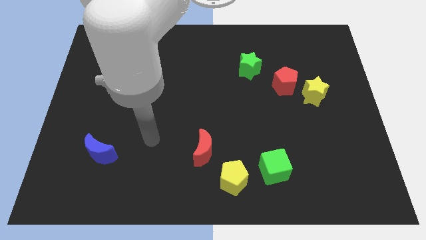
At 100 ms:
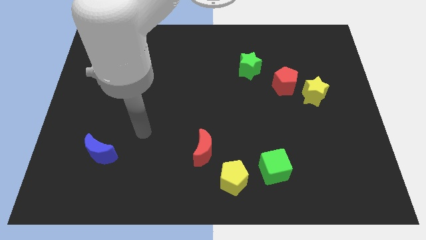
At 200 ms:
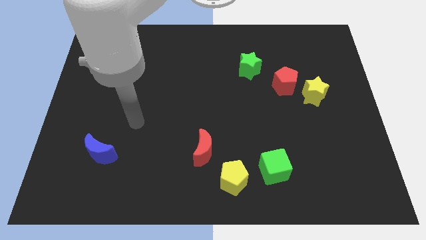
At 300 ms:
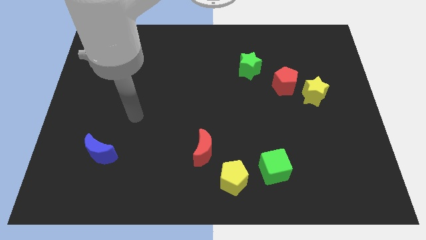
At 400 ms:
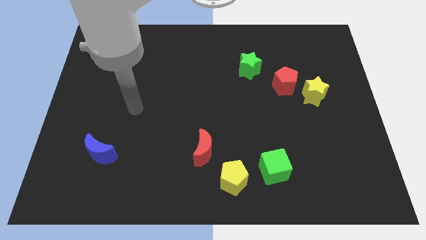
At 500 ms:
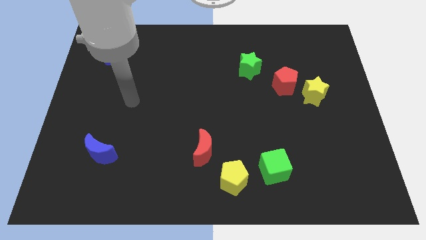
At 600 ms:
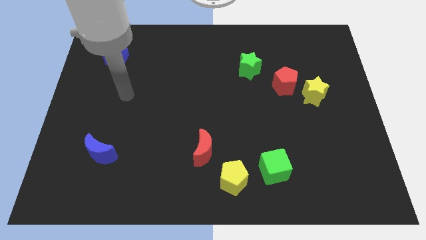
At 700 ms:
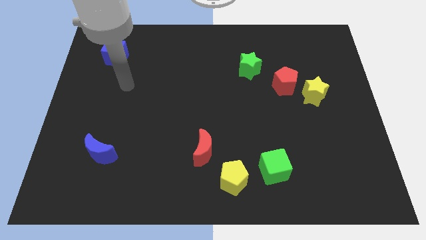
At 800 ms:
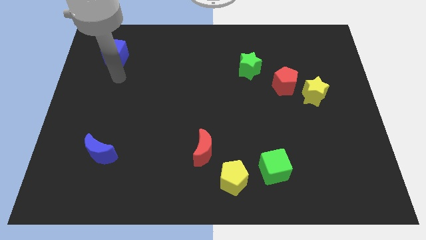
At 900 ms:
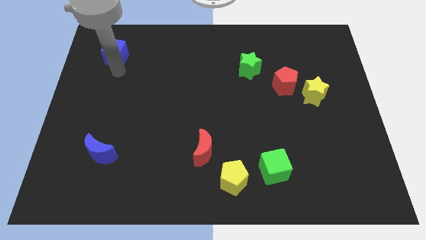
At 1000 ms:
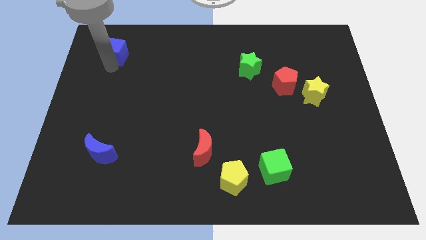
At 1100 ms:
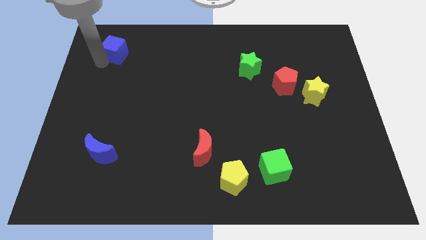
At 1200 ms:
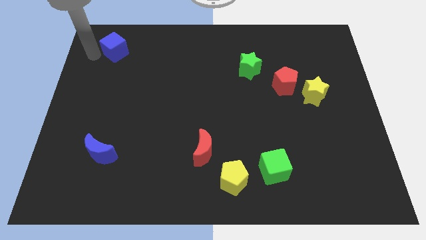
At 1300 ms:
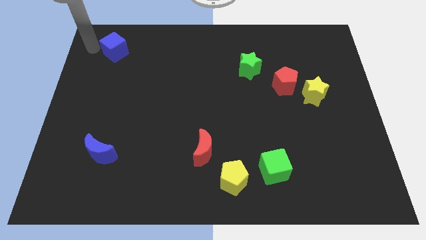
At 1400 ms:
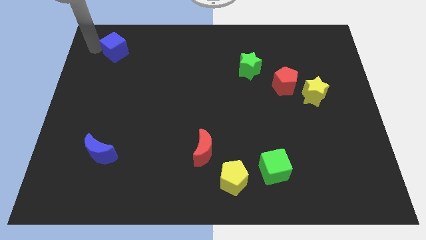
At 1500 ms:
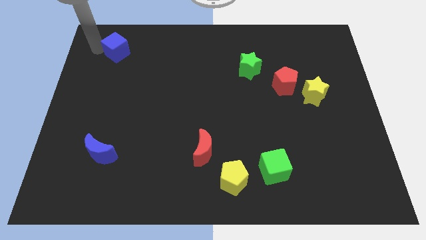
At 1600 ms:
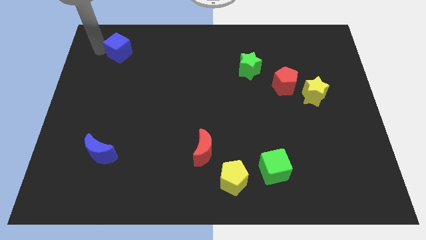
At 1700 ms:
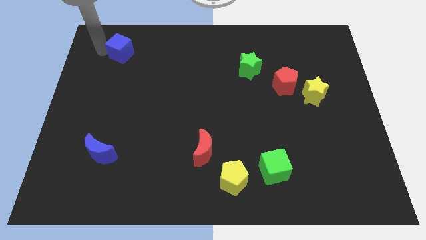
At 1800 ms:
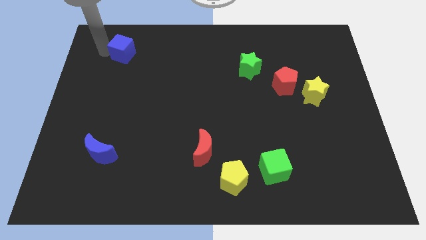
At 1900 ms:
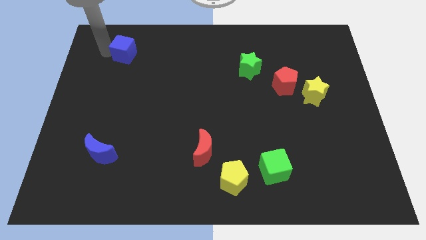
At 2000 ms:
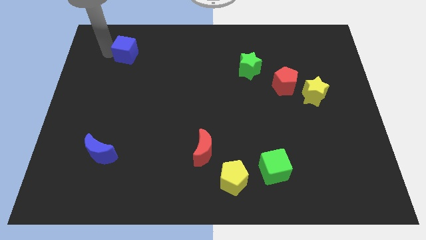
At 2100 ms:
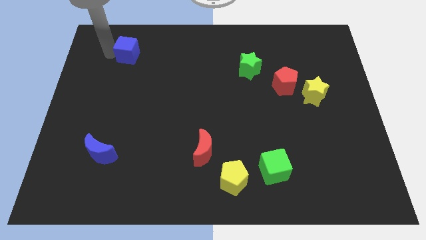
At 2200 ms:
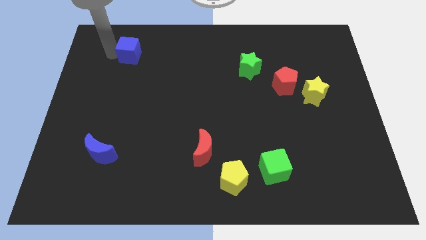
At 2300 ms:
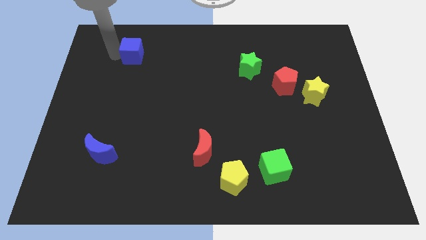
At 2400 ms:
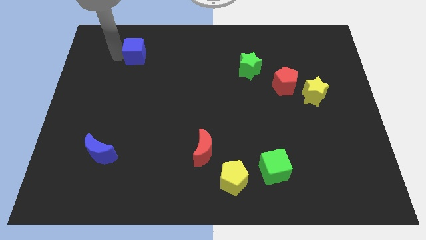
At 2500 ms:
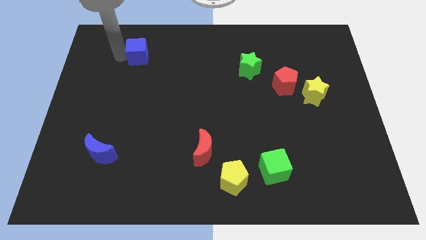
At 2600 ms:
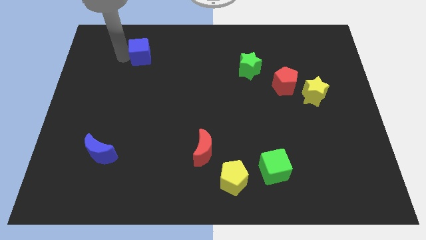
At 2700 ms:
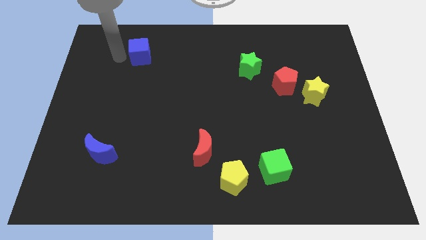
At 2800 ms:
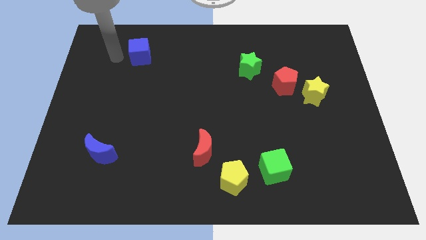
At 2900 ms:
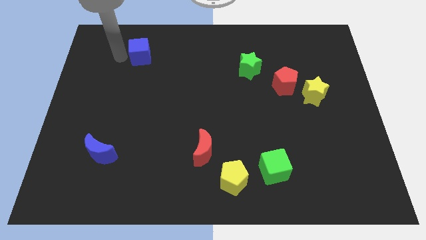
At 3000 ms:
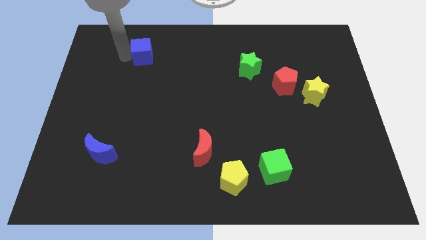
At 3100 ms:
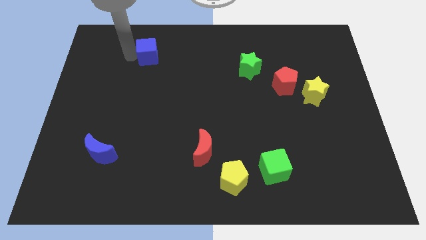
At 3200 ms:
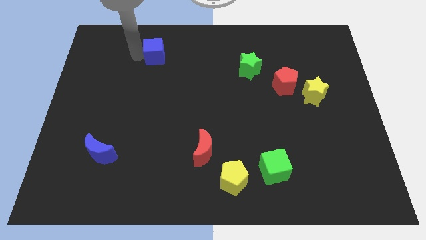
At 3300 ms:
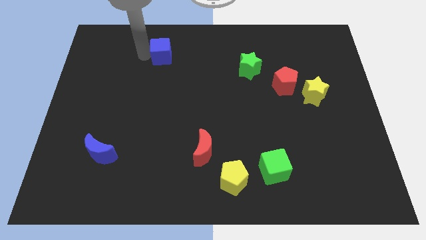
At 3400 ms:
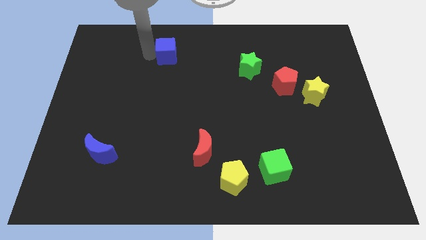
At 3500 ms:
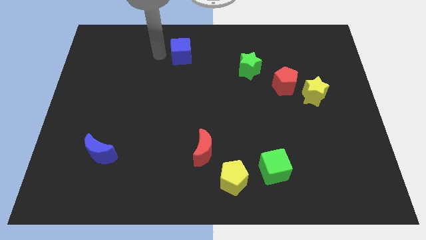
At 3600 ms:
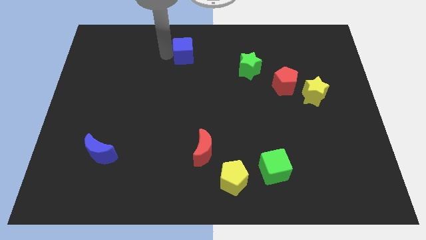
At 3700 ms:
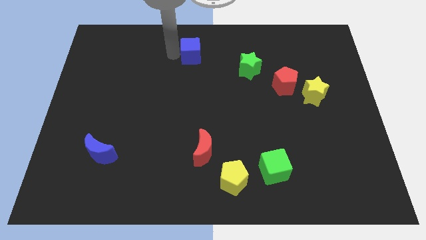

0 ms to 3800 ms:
push the blue cube right

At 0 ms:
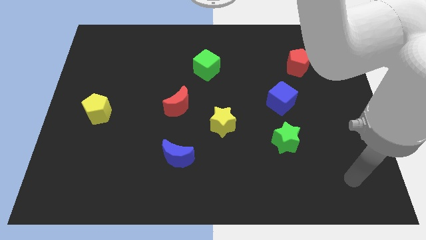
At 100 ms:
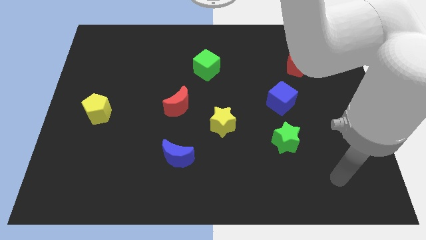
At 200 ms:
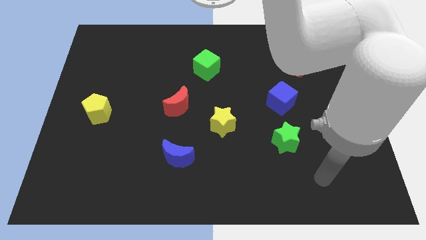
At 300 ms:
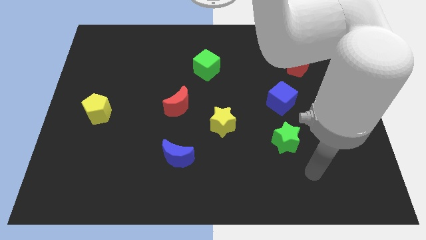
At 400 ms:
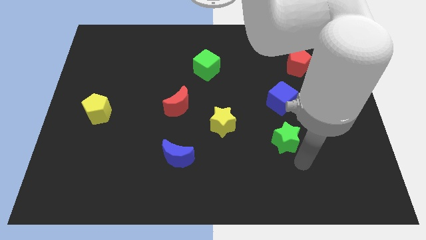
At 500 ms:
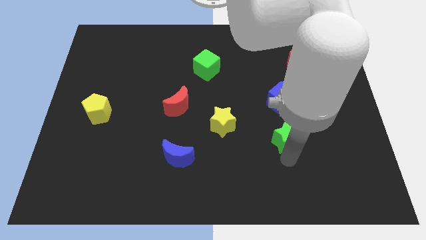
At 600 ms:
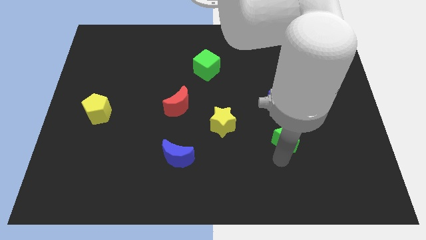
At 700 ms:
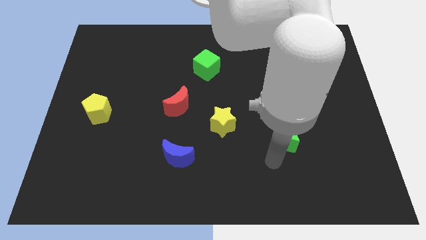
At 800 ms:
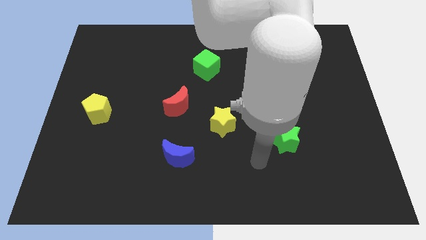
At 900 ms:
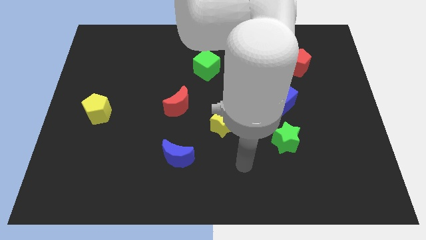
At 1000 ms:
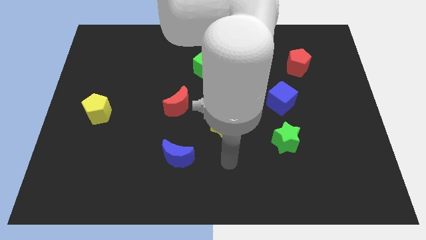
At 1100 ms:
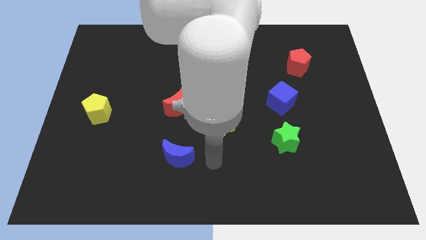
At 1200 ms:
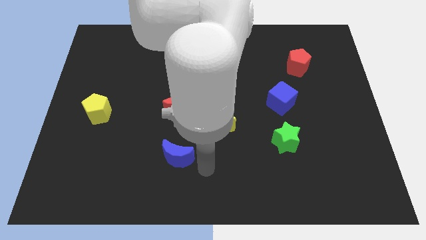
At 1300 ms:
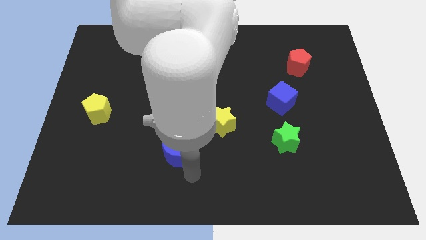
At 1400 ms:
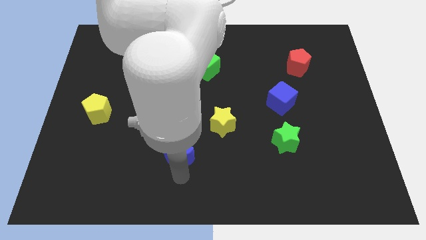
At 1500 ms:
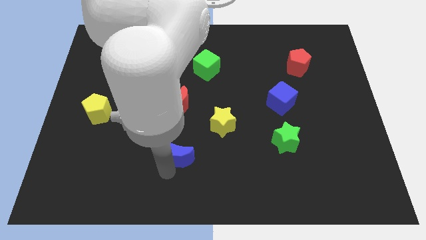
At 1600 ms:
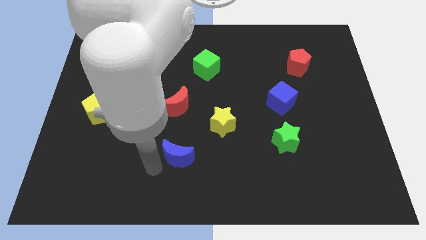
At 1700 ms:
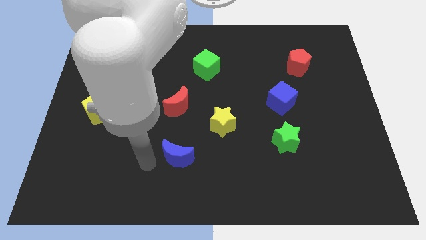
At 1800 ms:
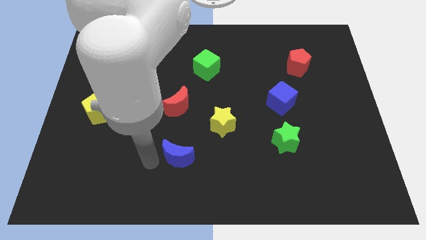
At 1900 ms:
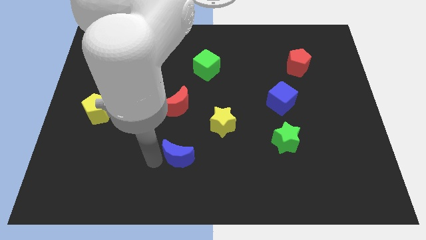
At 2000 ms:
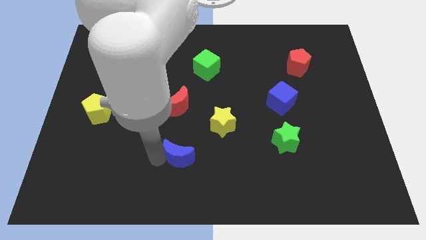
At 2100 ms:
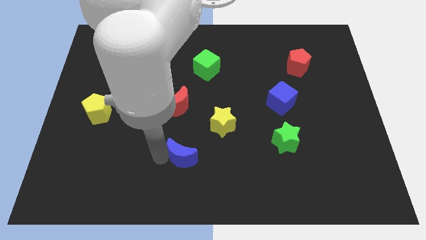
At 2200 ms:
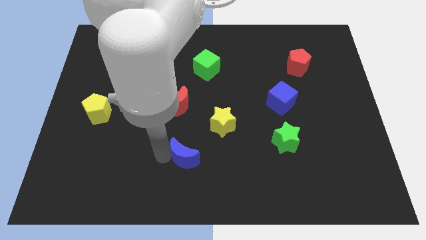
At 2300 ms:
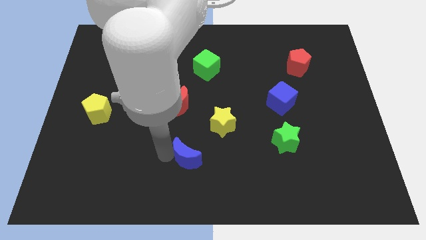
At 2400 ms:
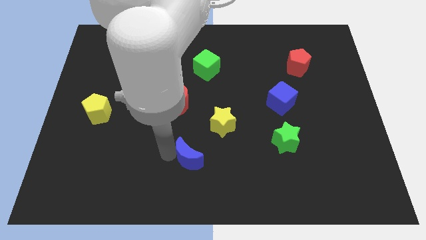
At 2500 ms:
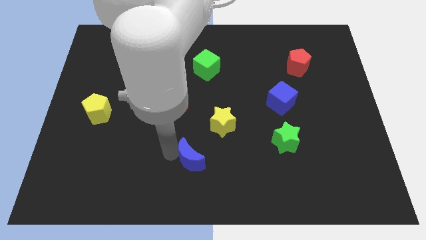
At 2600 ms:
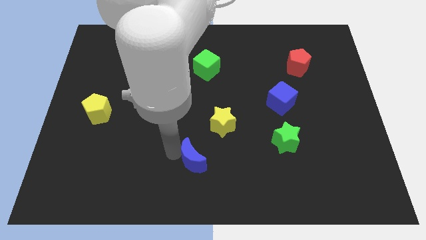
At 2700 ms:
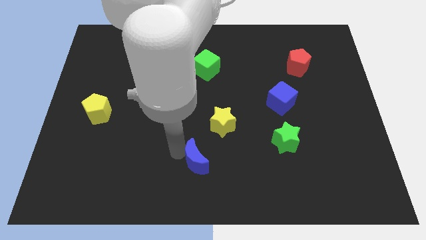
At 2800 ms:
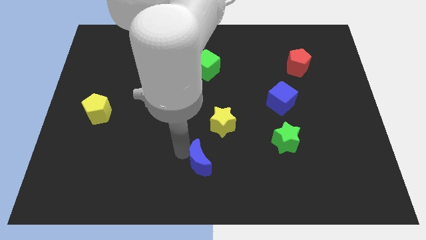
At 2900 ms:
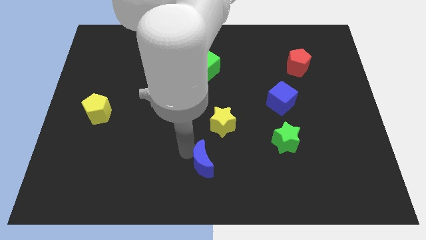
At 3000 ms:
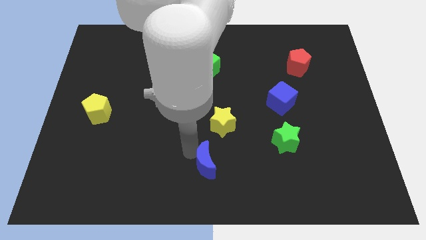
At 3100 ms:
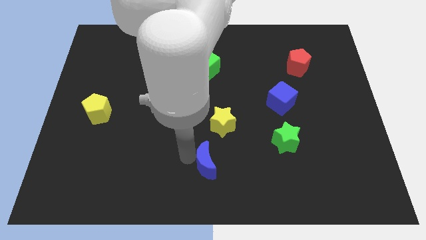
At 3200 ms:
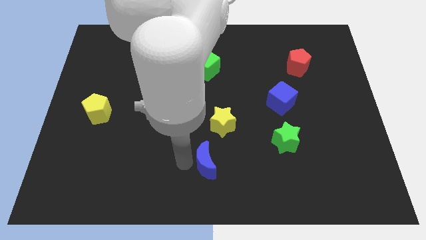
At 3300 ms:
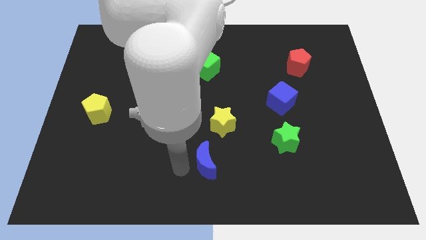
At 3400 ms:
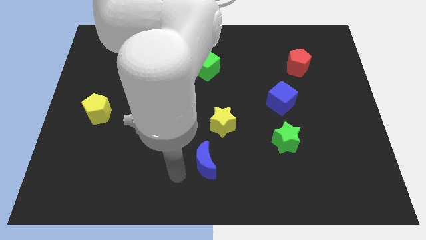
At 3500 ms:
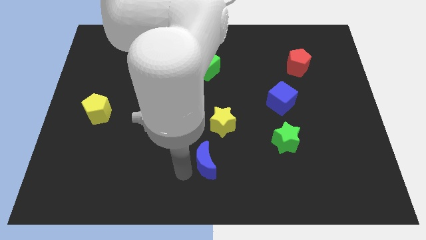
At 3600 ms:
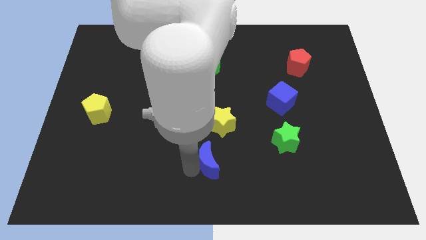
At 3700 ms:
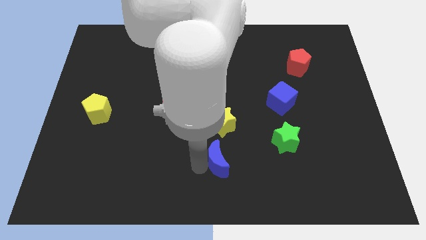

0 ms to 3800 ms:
push the blue moon somewhat to the right

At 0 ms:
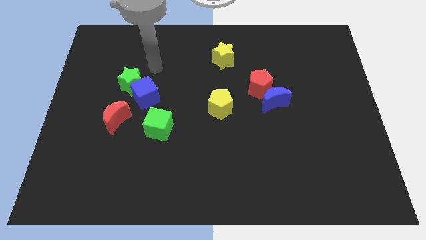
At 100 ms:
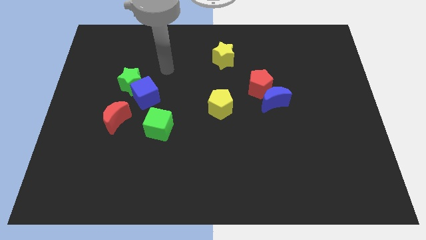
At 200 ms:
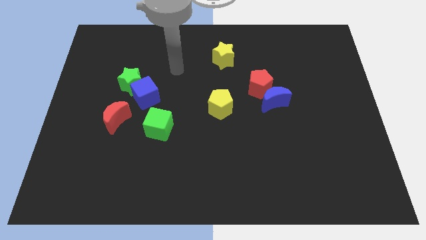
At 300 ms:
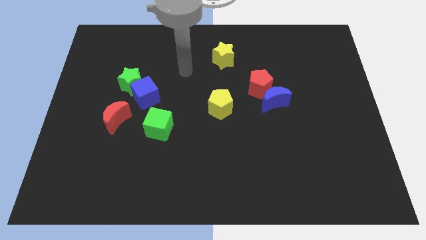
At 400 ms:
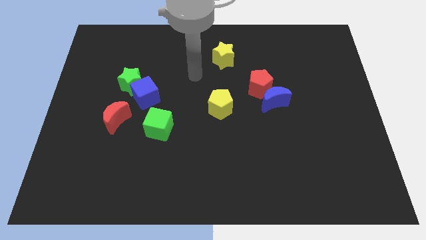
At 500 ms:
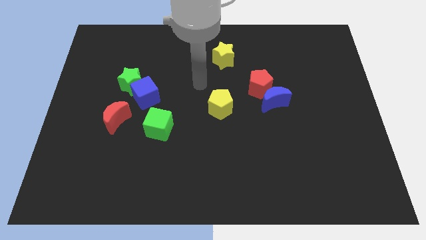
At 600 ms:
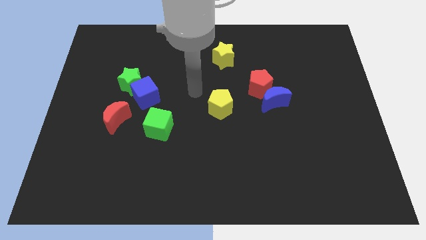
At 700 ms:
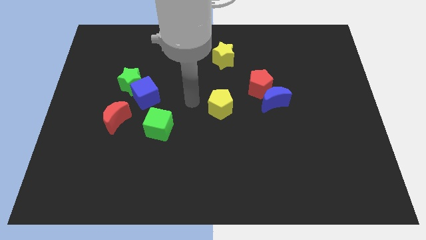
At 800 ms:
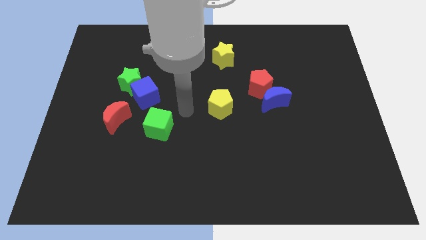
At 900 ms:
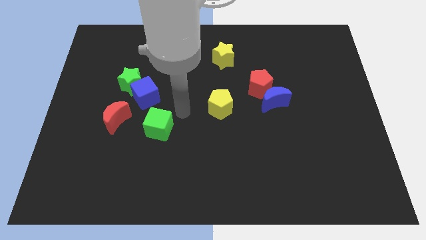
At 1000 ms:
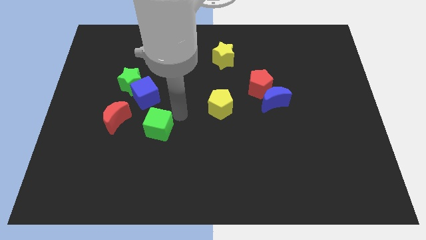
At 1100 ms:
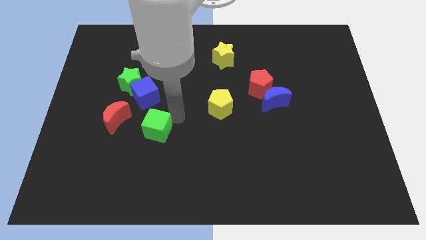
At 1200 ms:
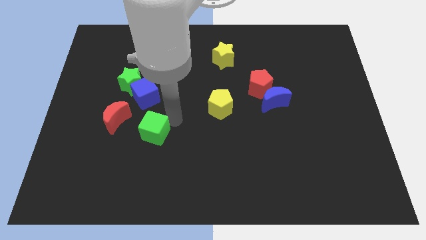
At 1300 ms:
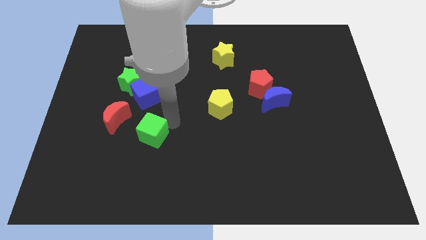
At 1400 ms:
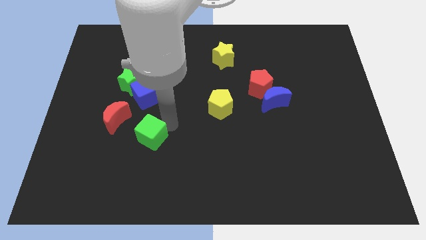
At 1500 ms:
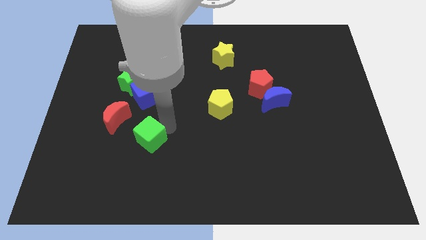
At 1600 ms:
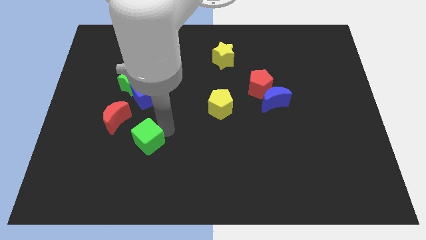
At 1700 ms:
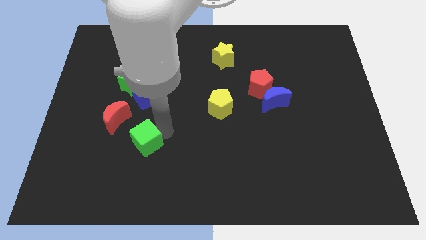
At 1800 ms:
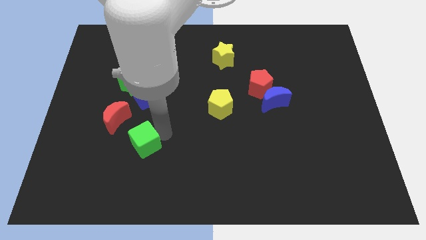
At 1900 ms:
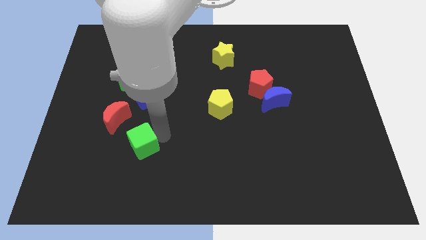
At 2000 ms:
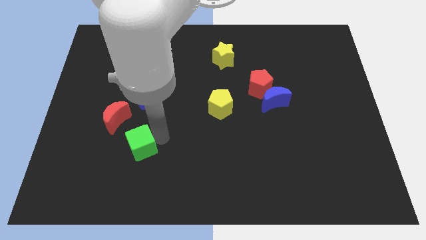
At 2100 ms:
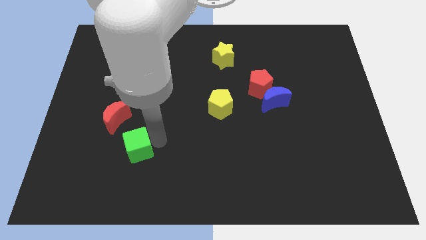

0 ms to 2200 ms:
slightly move the green cube downwards and then left
